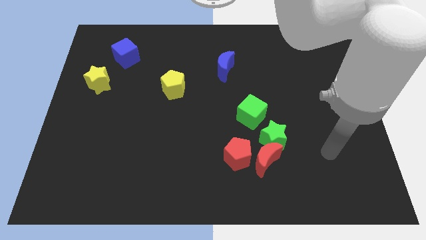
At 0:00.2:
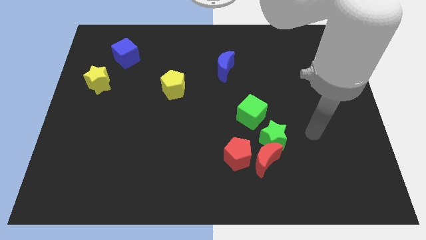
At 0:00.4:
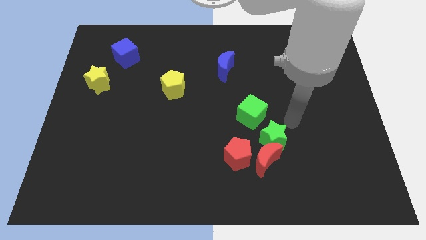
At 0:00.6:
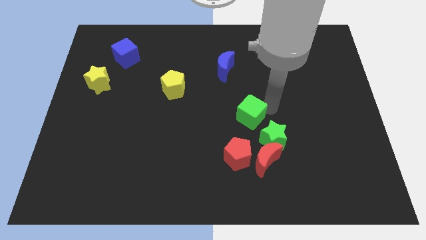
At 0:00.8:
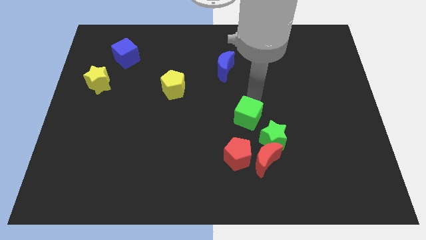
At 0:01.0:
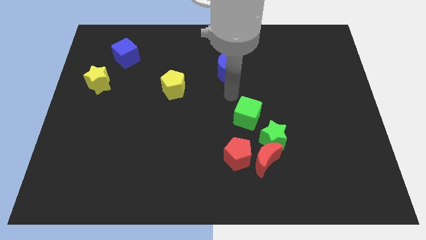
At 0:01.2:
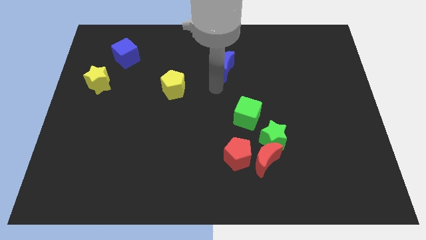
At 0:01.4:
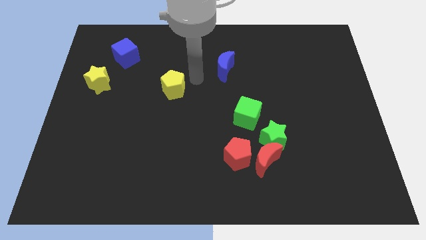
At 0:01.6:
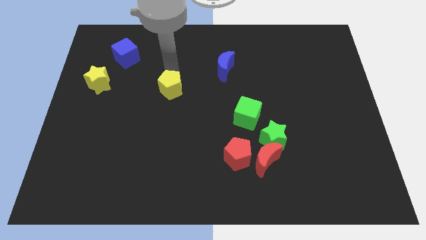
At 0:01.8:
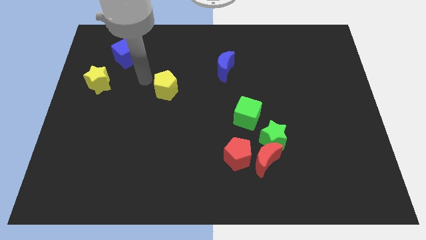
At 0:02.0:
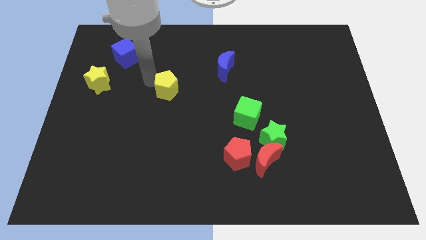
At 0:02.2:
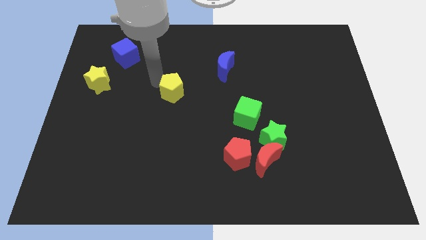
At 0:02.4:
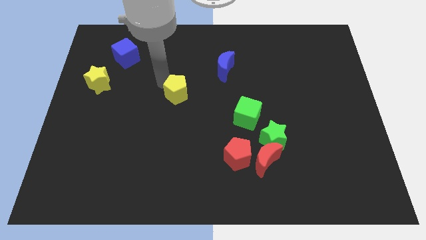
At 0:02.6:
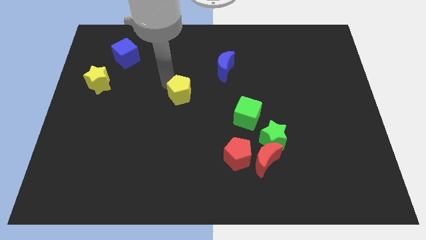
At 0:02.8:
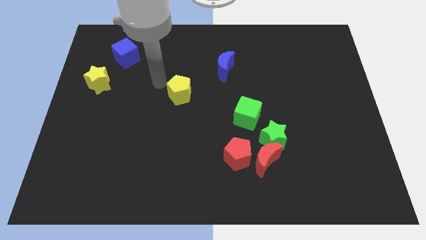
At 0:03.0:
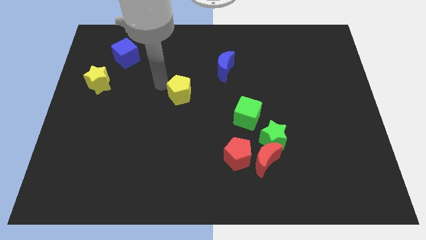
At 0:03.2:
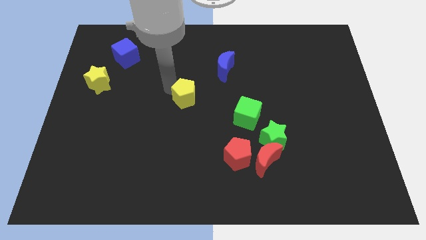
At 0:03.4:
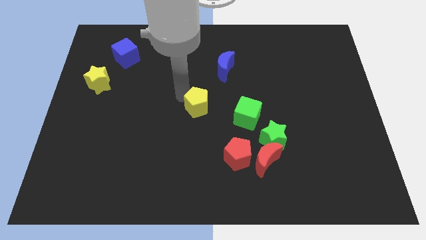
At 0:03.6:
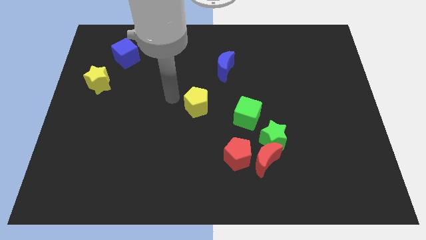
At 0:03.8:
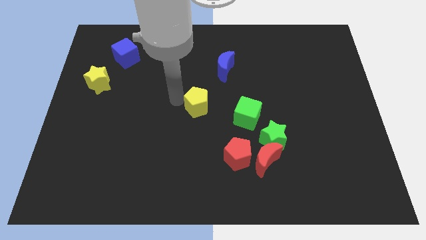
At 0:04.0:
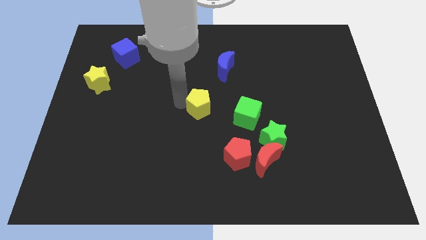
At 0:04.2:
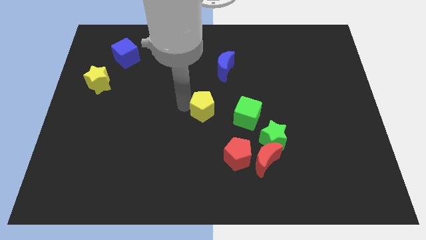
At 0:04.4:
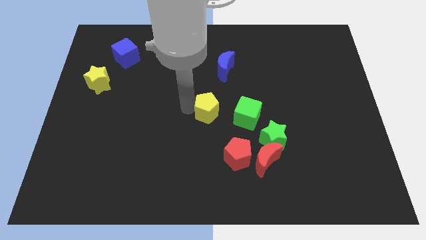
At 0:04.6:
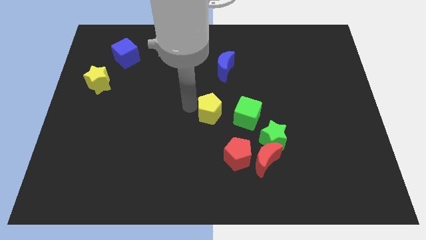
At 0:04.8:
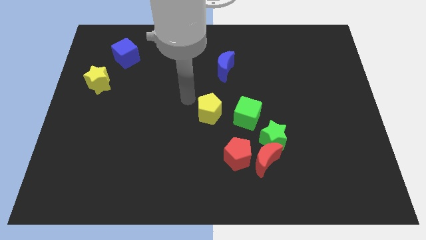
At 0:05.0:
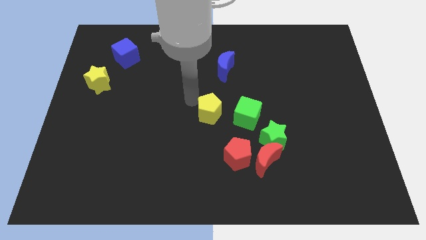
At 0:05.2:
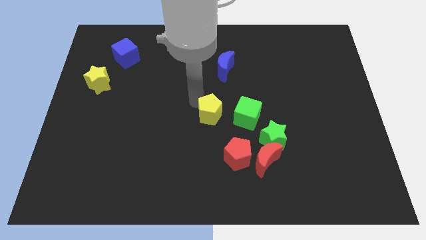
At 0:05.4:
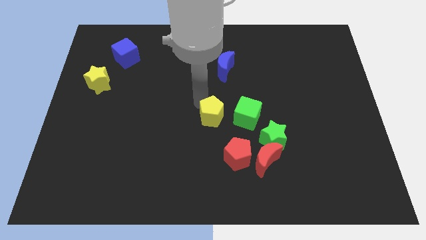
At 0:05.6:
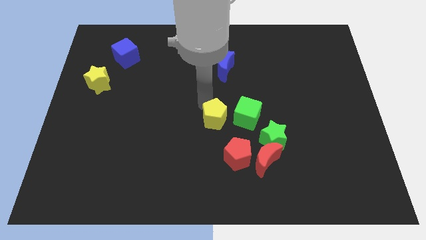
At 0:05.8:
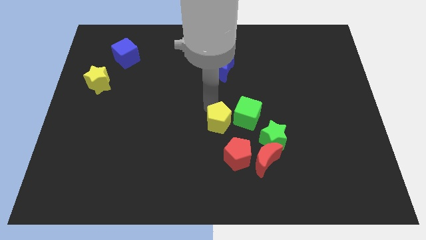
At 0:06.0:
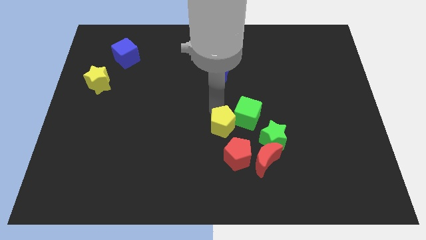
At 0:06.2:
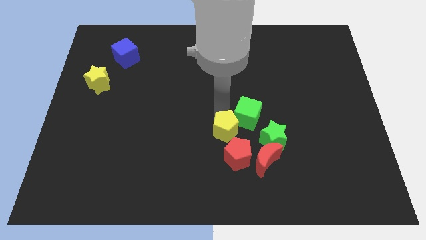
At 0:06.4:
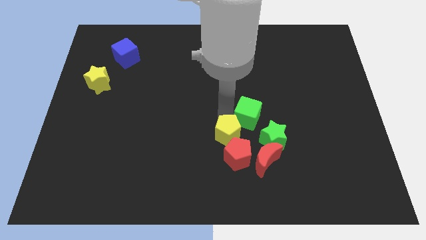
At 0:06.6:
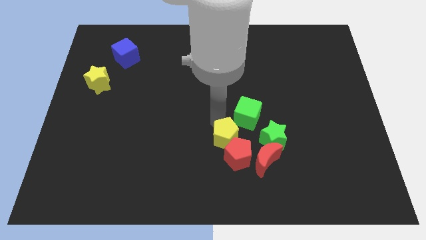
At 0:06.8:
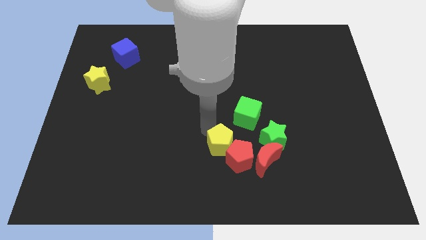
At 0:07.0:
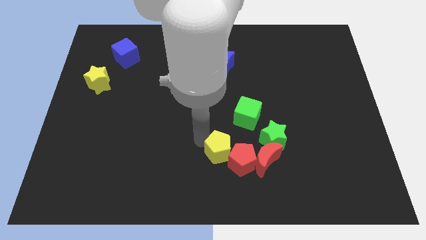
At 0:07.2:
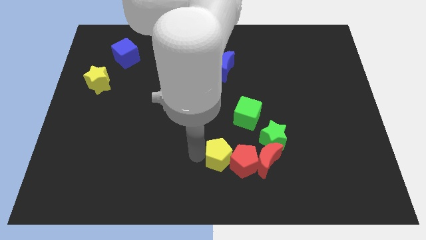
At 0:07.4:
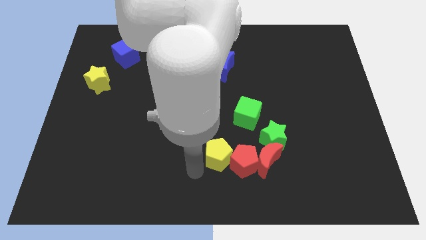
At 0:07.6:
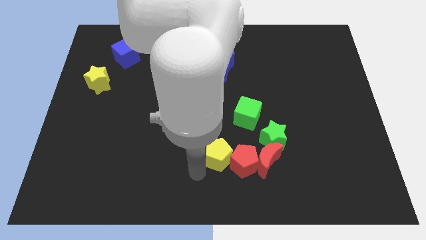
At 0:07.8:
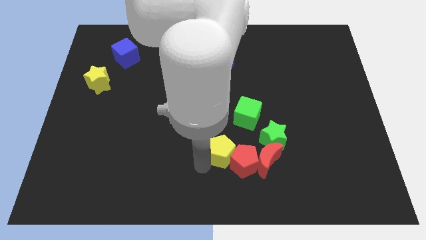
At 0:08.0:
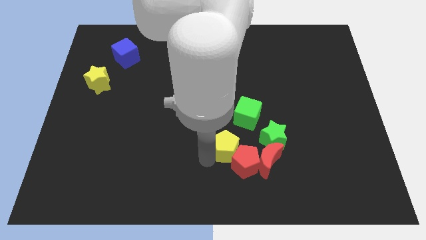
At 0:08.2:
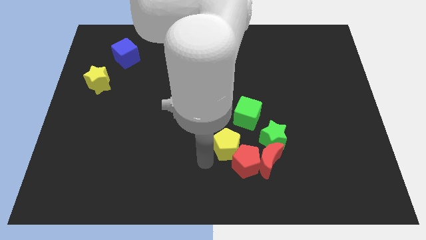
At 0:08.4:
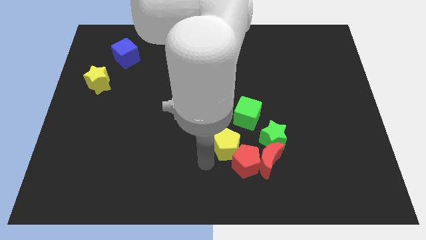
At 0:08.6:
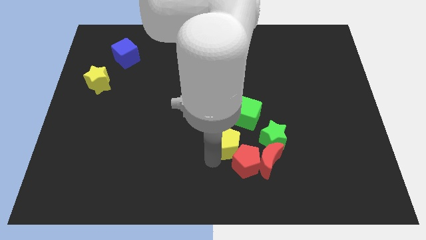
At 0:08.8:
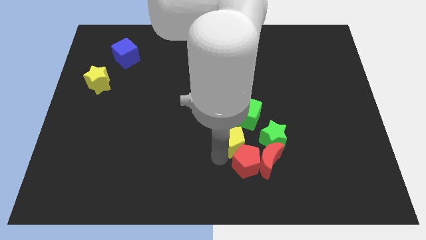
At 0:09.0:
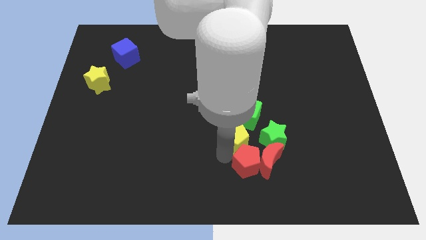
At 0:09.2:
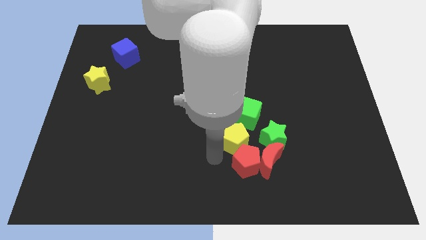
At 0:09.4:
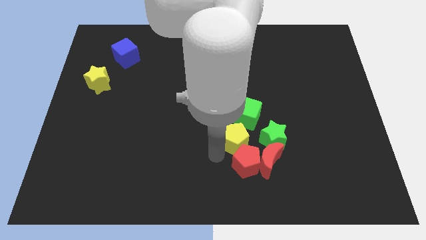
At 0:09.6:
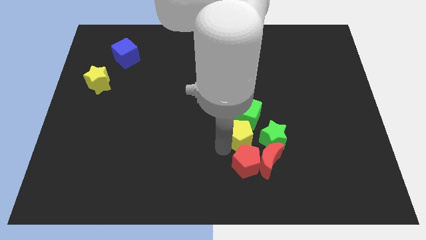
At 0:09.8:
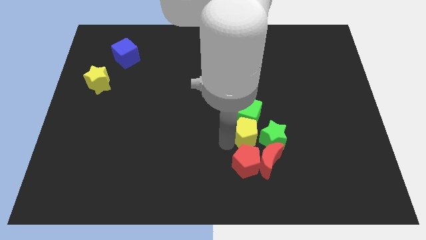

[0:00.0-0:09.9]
push the yellow pentagon next to the green star

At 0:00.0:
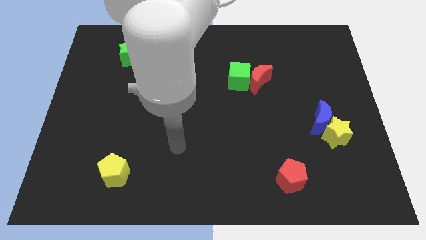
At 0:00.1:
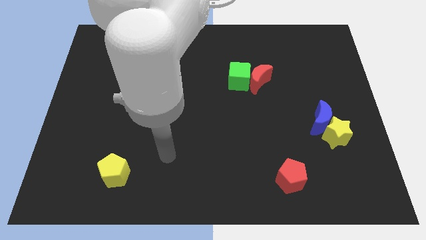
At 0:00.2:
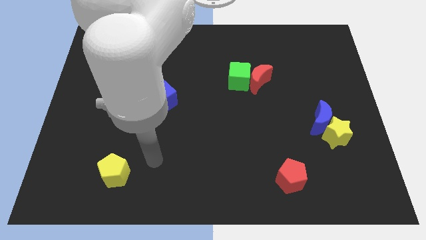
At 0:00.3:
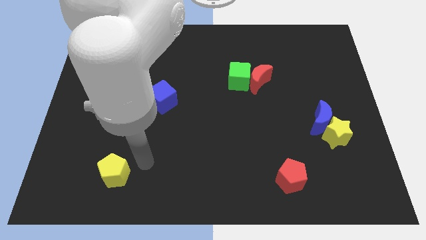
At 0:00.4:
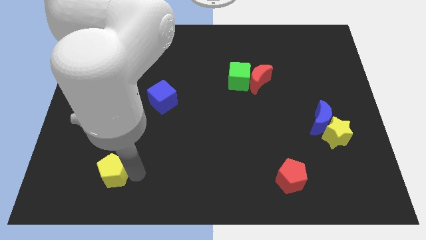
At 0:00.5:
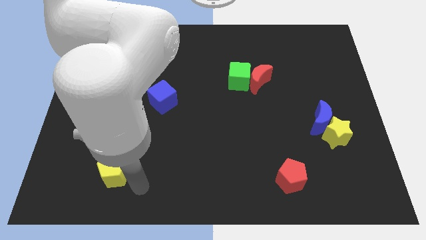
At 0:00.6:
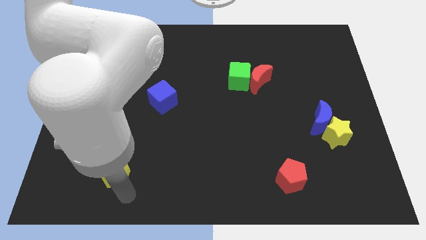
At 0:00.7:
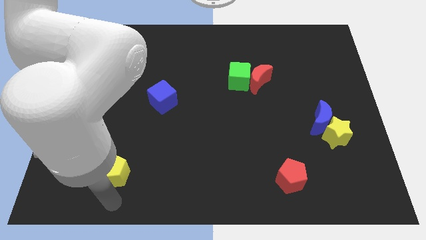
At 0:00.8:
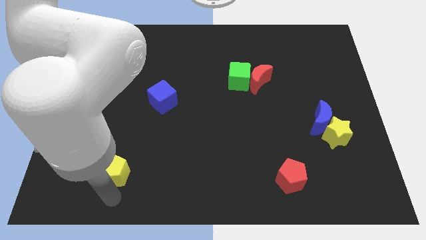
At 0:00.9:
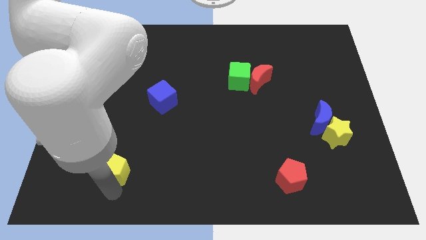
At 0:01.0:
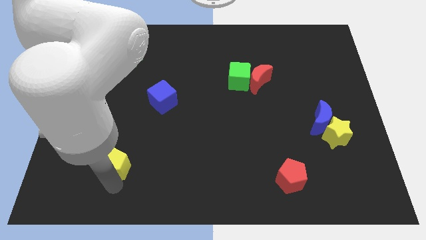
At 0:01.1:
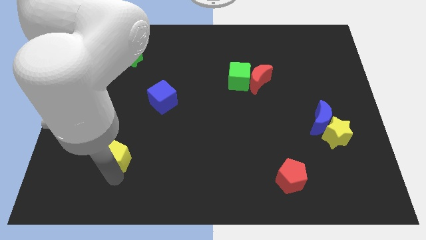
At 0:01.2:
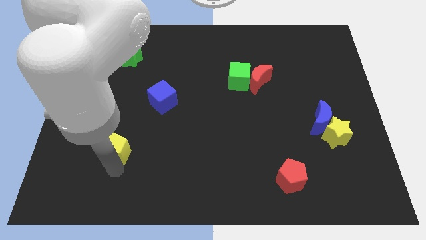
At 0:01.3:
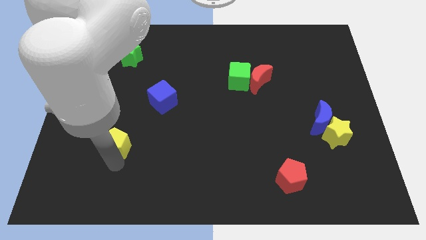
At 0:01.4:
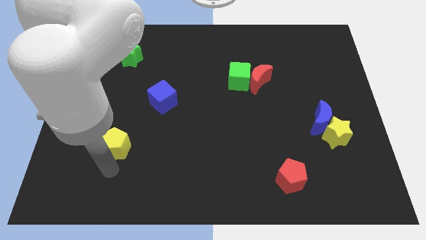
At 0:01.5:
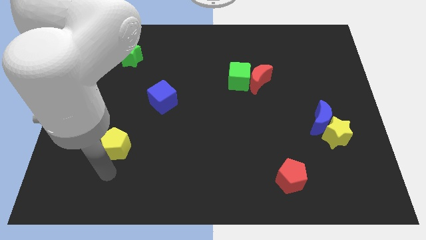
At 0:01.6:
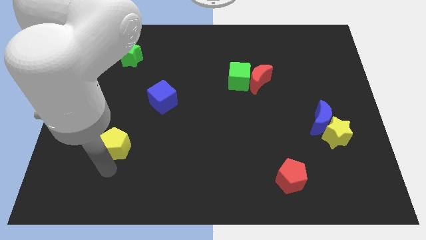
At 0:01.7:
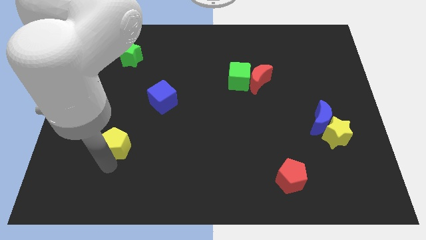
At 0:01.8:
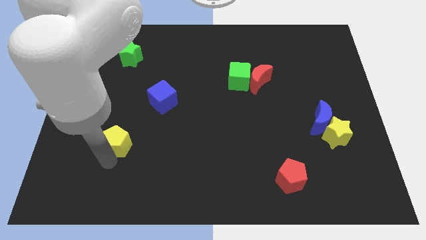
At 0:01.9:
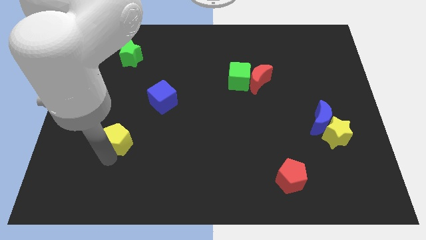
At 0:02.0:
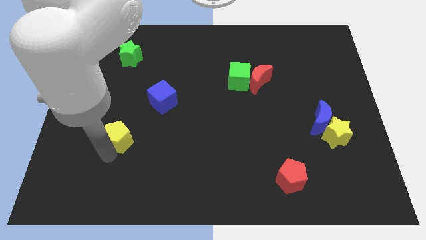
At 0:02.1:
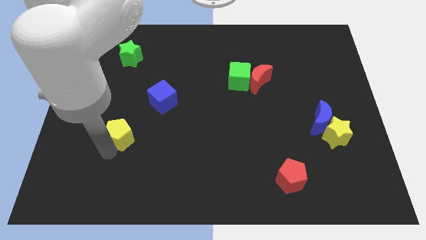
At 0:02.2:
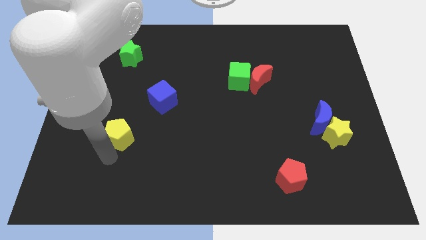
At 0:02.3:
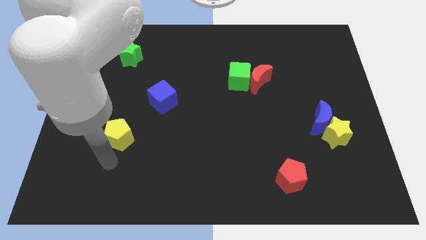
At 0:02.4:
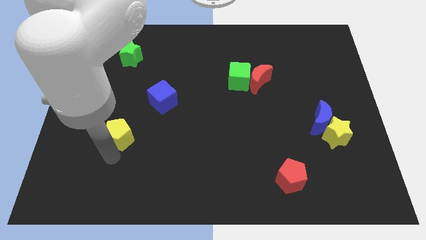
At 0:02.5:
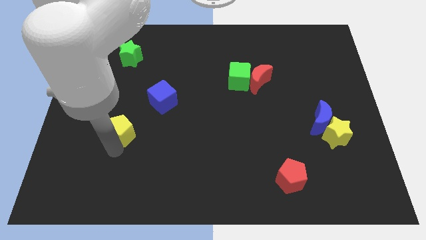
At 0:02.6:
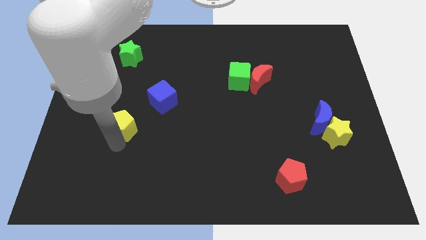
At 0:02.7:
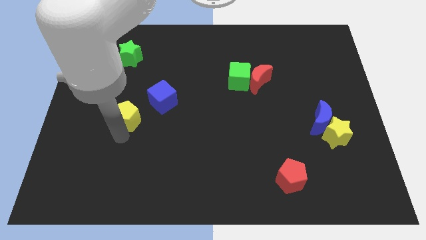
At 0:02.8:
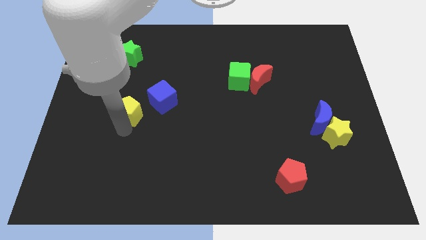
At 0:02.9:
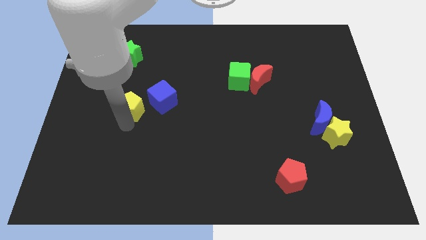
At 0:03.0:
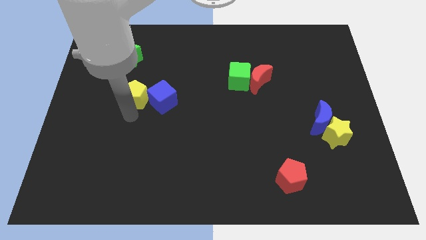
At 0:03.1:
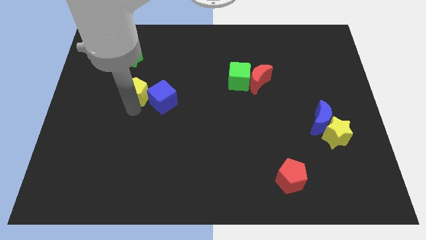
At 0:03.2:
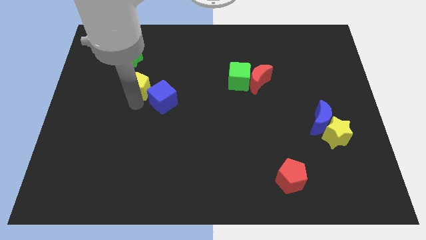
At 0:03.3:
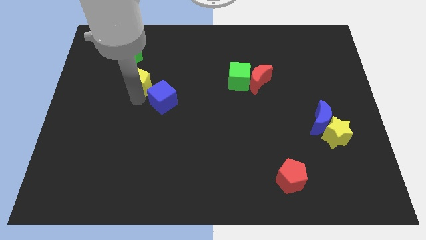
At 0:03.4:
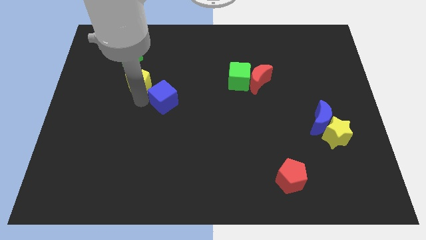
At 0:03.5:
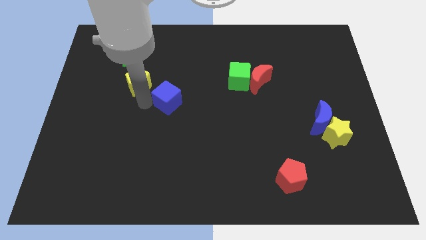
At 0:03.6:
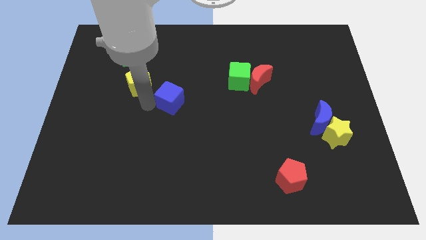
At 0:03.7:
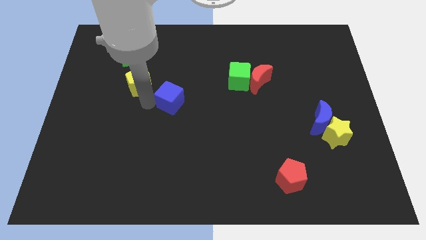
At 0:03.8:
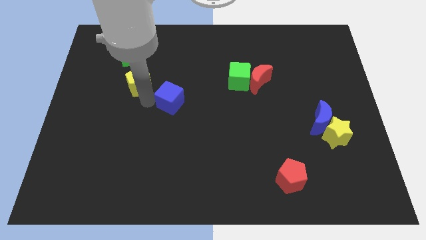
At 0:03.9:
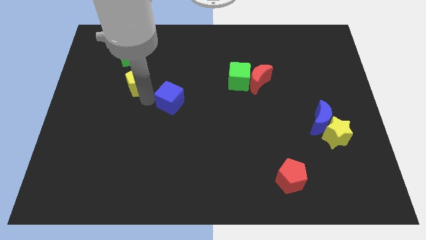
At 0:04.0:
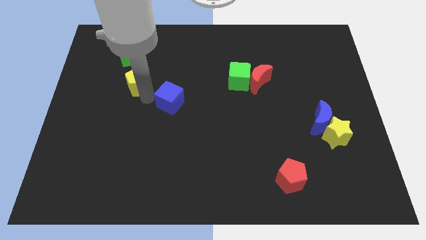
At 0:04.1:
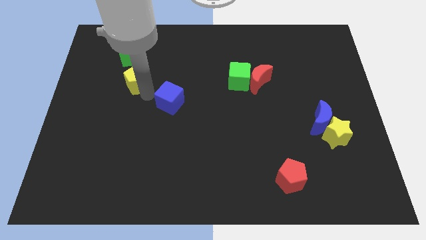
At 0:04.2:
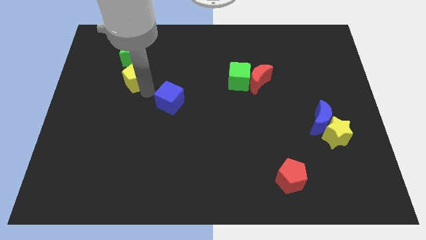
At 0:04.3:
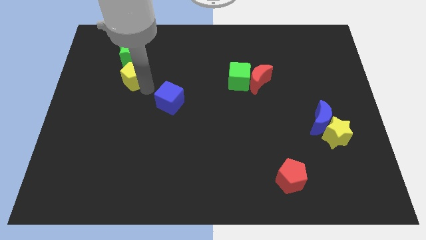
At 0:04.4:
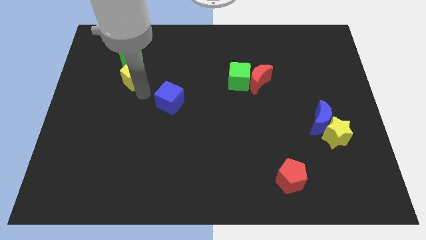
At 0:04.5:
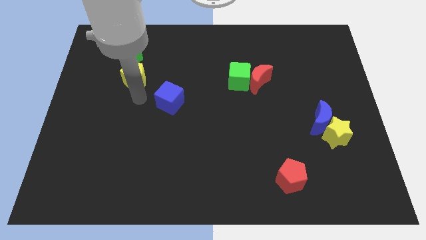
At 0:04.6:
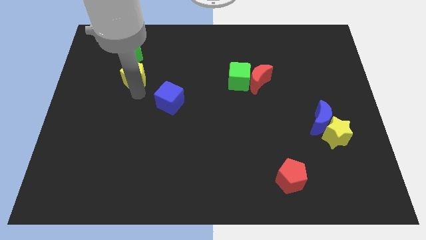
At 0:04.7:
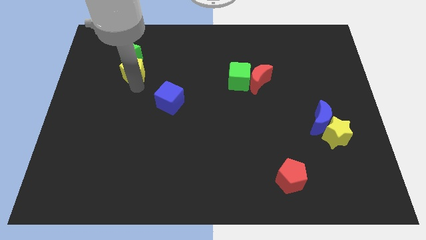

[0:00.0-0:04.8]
push the yellow pentagon to the green star
